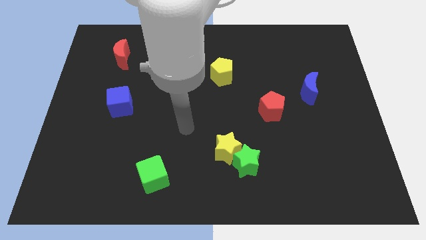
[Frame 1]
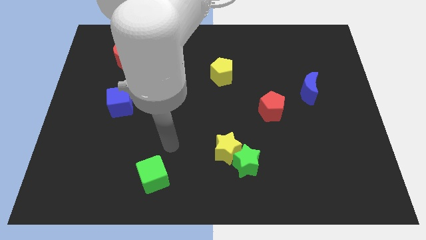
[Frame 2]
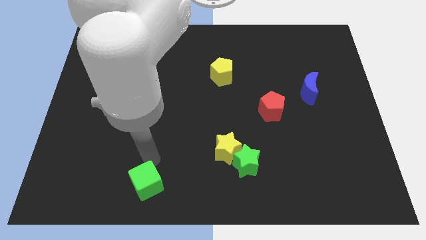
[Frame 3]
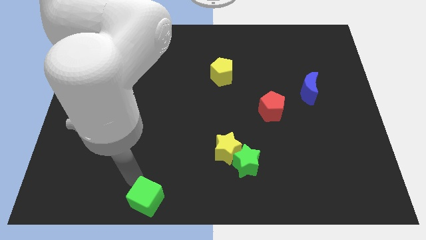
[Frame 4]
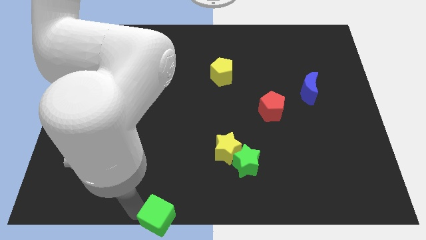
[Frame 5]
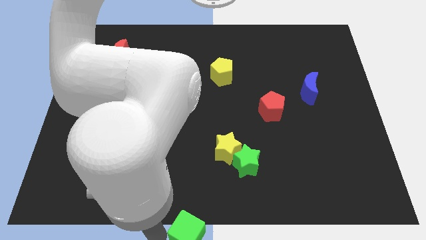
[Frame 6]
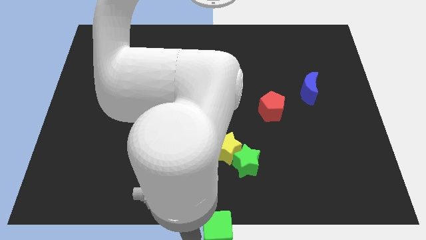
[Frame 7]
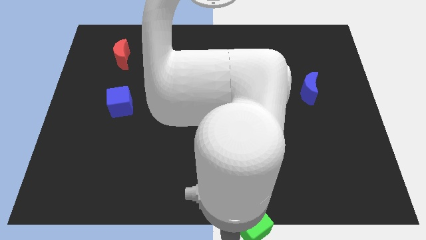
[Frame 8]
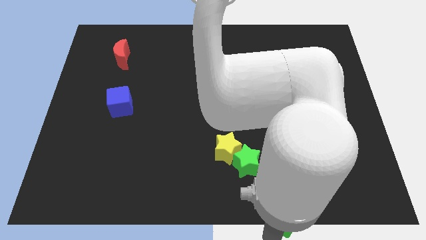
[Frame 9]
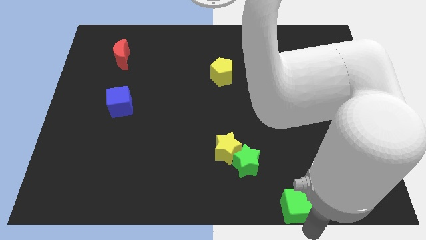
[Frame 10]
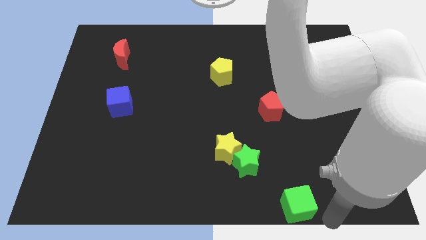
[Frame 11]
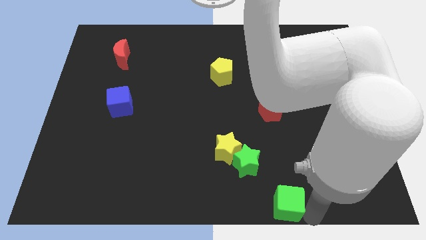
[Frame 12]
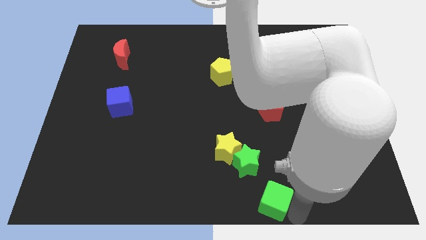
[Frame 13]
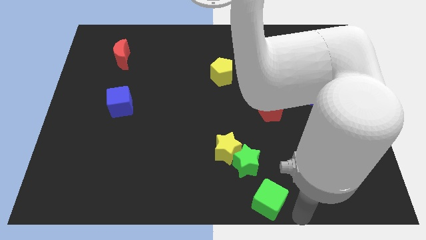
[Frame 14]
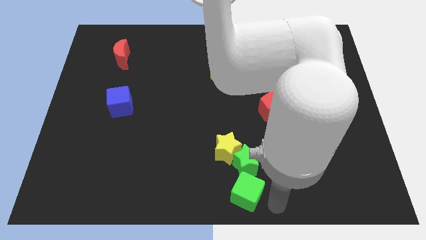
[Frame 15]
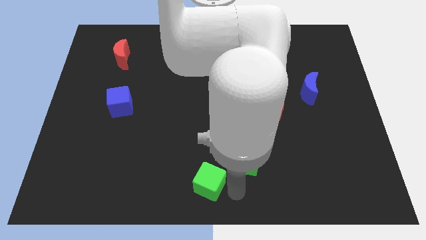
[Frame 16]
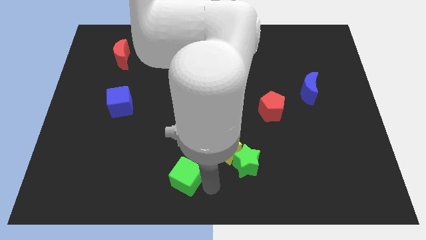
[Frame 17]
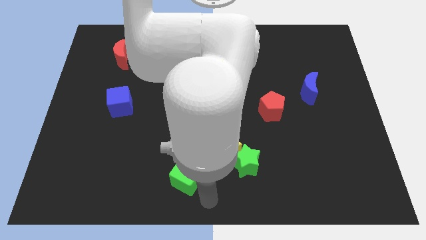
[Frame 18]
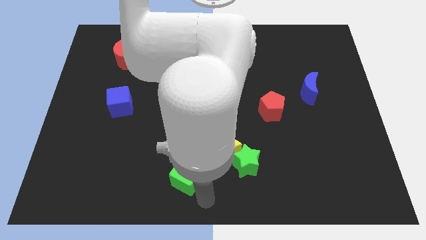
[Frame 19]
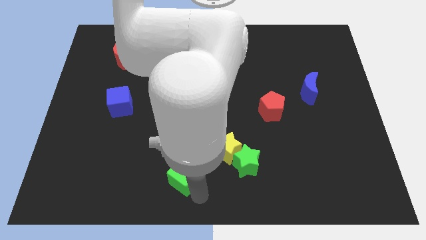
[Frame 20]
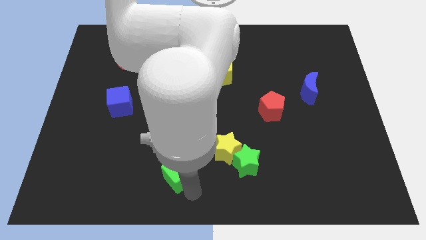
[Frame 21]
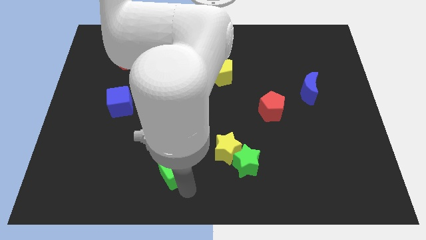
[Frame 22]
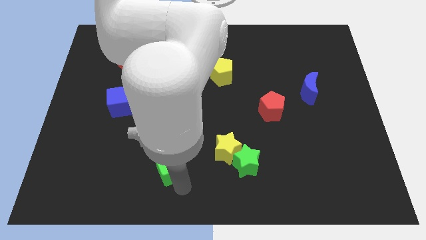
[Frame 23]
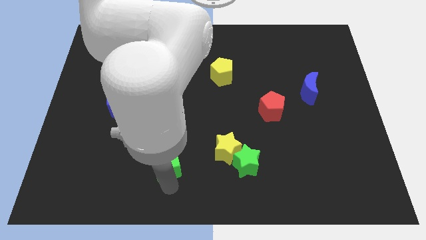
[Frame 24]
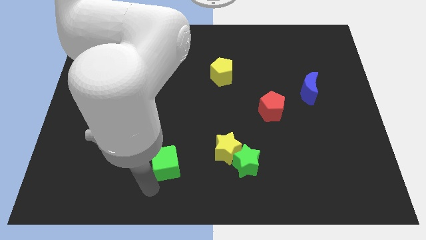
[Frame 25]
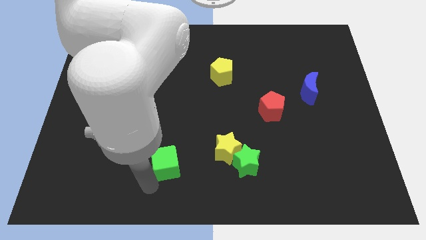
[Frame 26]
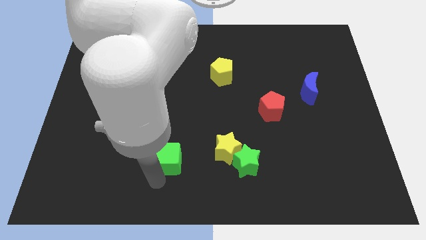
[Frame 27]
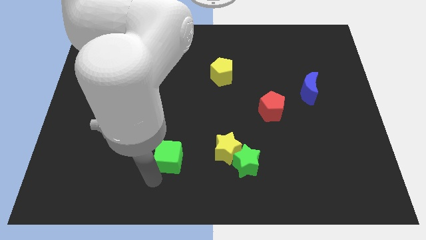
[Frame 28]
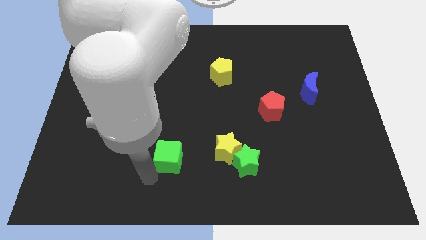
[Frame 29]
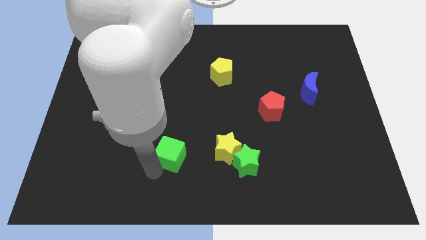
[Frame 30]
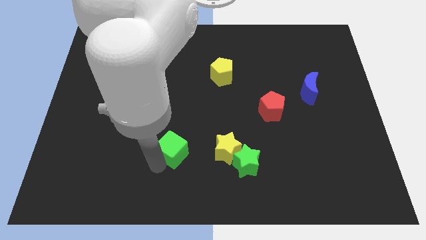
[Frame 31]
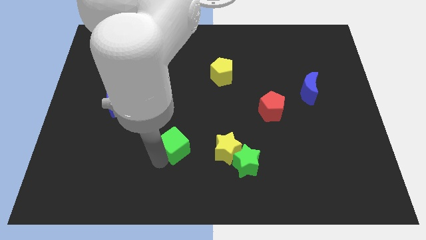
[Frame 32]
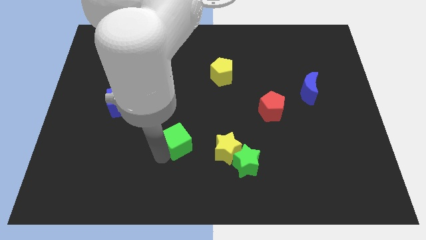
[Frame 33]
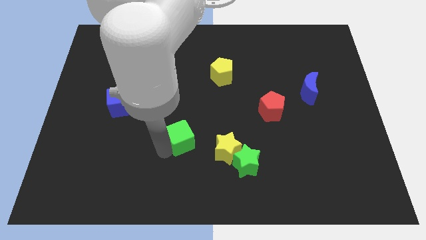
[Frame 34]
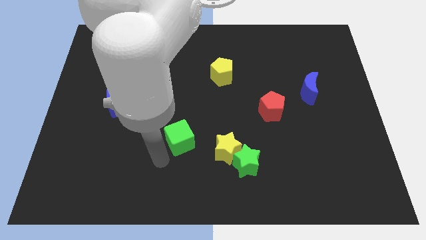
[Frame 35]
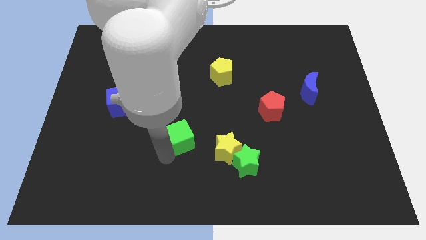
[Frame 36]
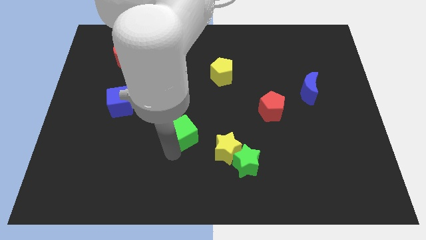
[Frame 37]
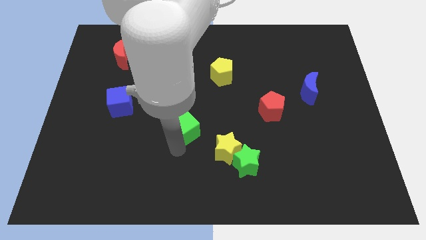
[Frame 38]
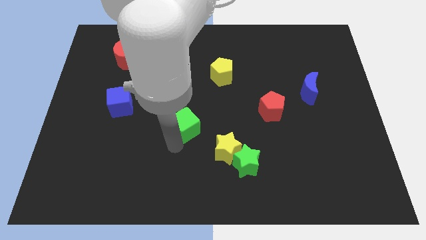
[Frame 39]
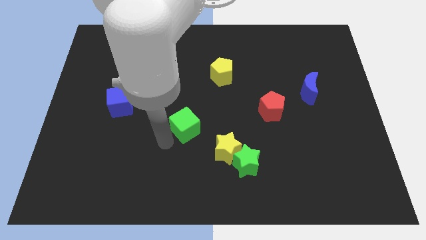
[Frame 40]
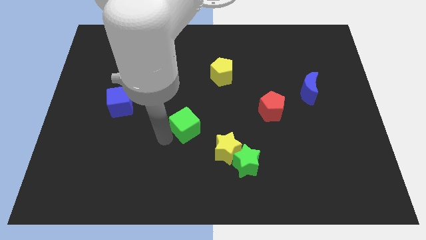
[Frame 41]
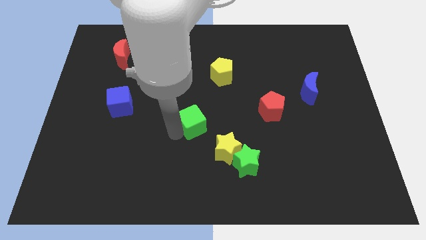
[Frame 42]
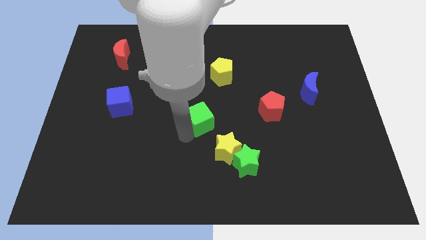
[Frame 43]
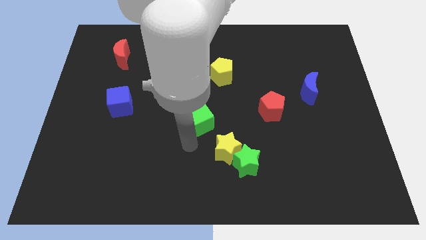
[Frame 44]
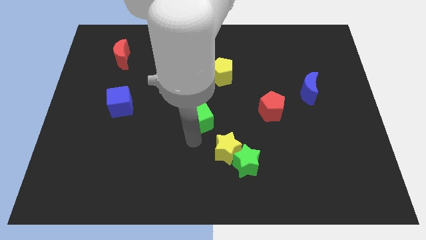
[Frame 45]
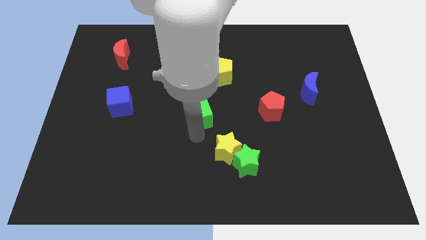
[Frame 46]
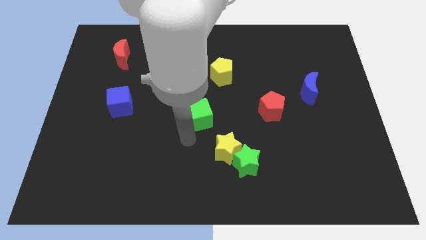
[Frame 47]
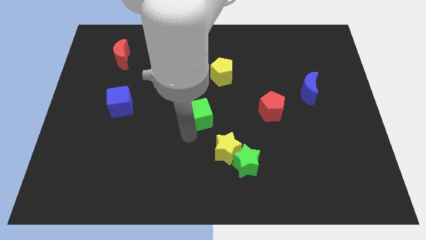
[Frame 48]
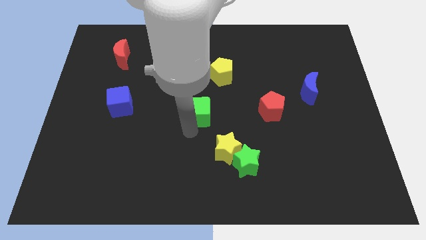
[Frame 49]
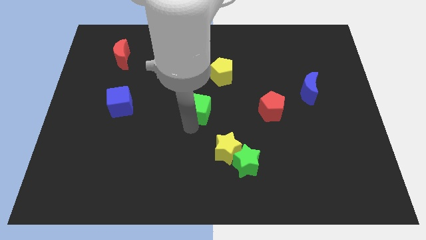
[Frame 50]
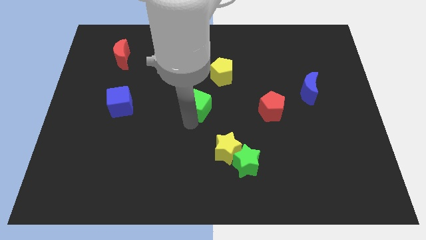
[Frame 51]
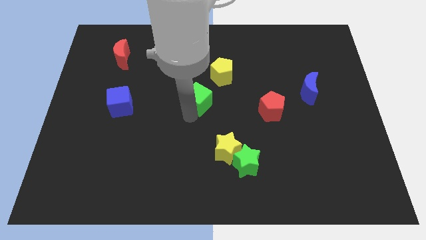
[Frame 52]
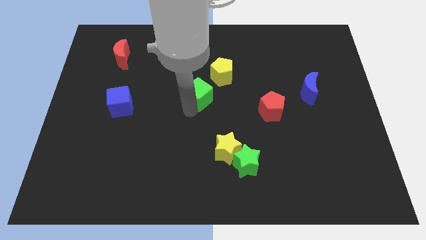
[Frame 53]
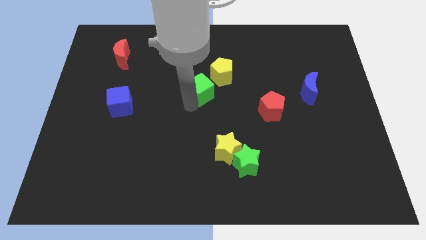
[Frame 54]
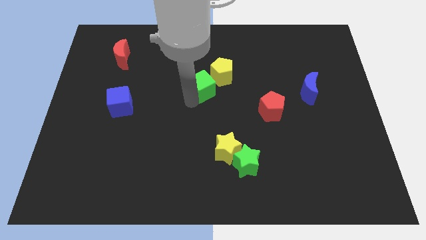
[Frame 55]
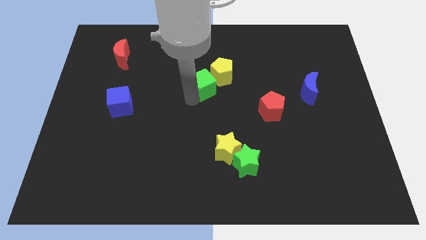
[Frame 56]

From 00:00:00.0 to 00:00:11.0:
put the green cube to the yellow pentagon

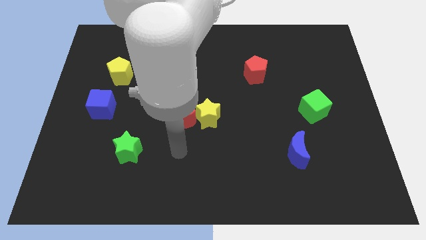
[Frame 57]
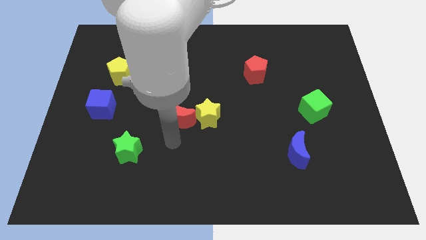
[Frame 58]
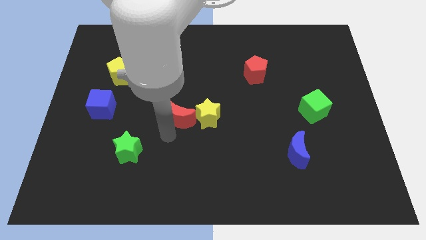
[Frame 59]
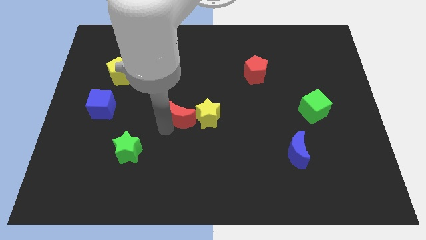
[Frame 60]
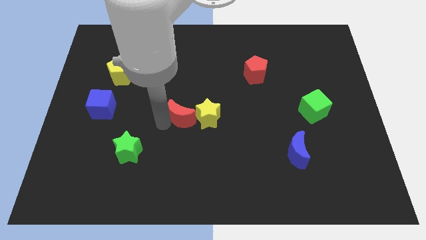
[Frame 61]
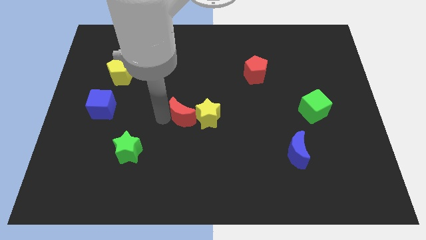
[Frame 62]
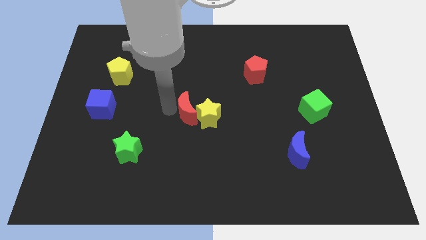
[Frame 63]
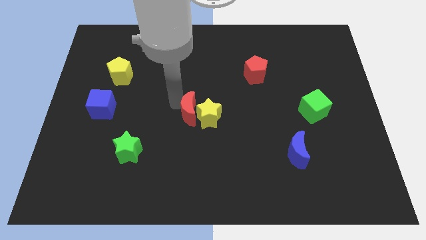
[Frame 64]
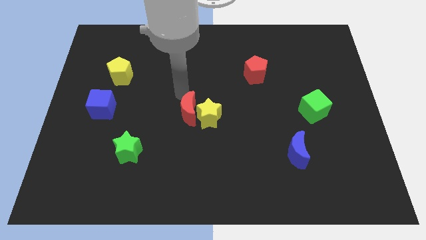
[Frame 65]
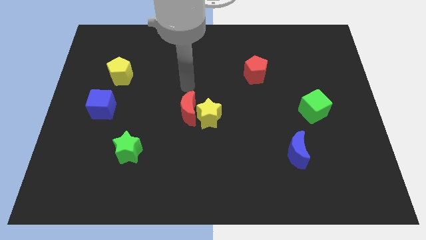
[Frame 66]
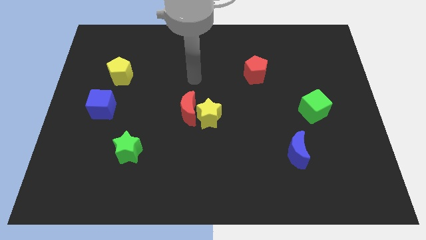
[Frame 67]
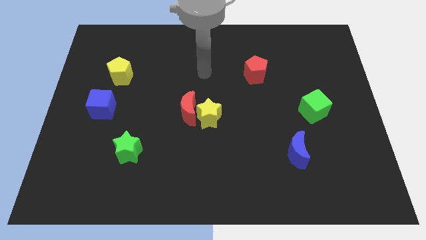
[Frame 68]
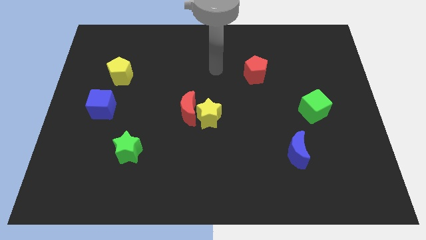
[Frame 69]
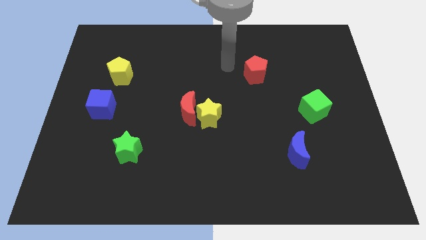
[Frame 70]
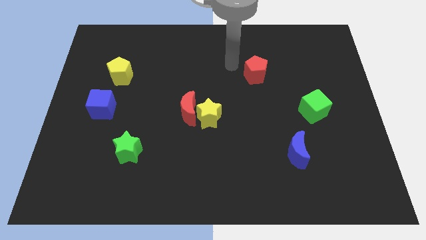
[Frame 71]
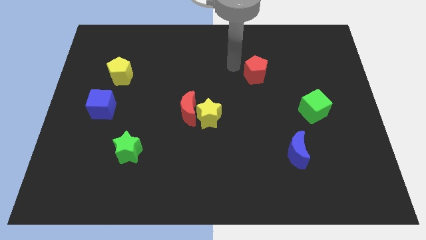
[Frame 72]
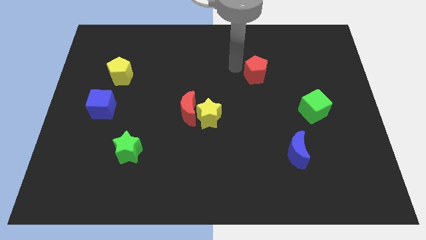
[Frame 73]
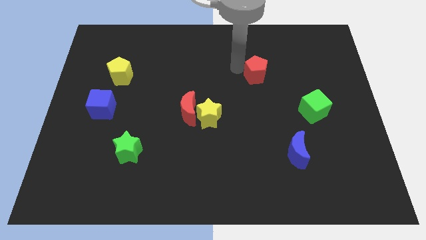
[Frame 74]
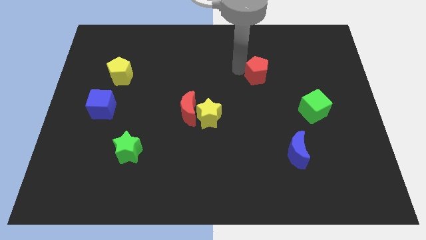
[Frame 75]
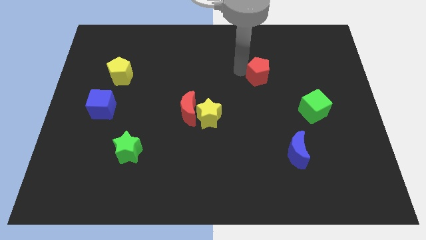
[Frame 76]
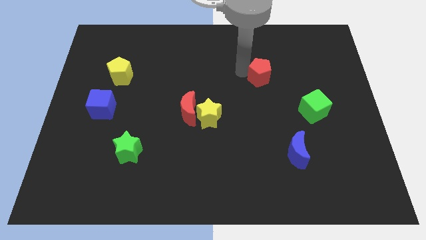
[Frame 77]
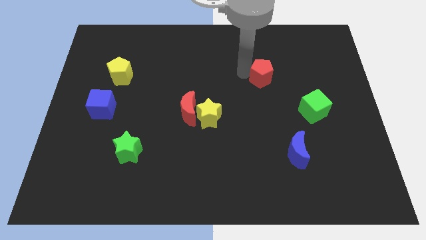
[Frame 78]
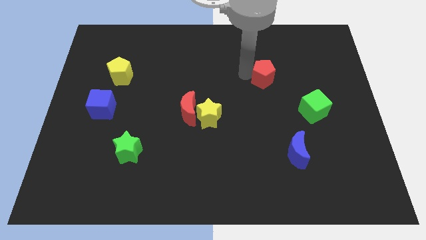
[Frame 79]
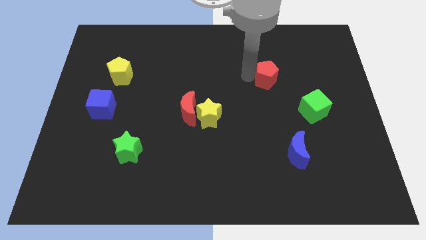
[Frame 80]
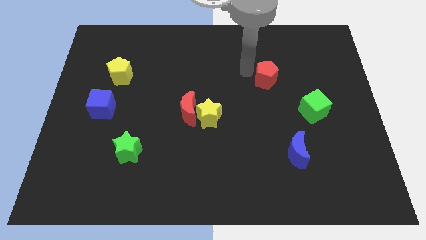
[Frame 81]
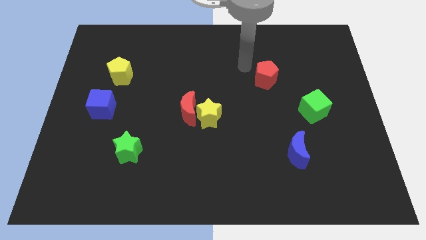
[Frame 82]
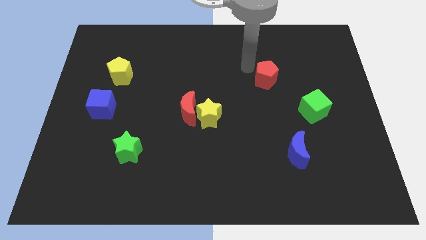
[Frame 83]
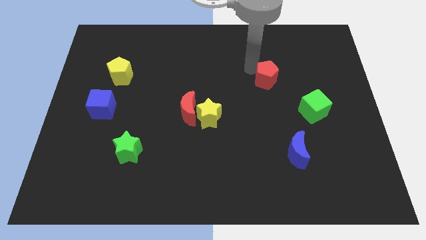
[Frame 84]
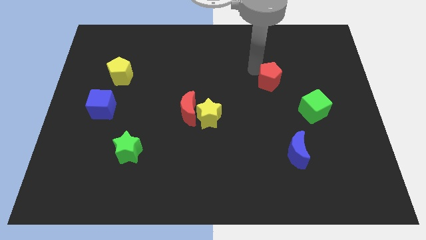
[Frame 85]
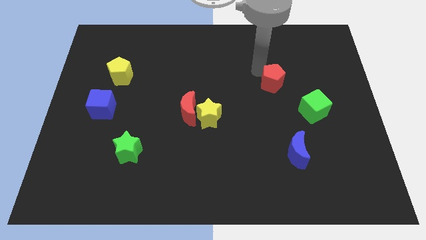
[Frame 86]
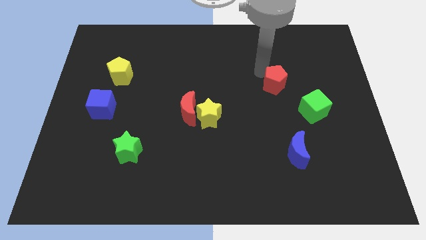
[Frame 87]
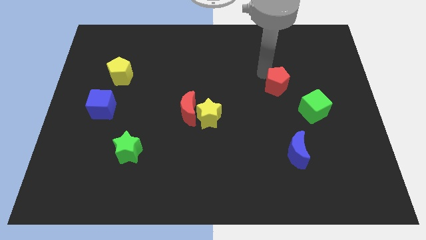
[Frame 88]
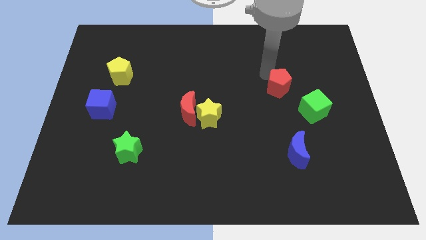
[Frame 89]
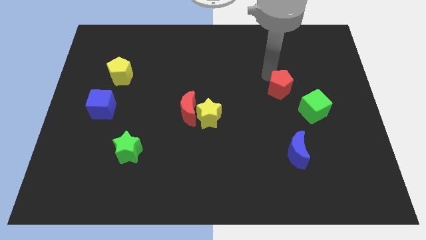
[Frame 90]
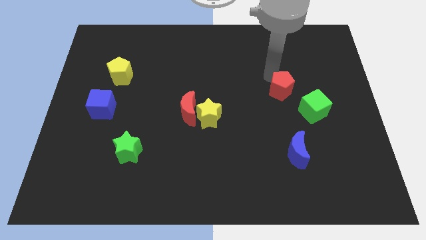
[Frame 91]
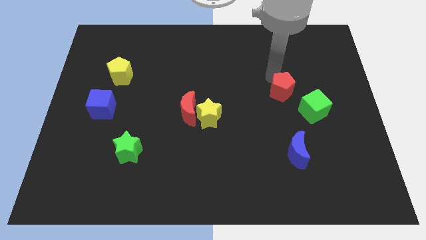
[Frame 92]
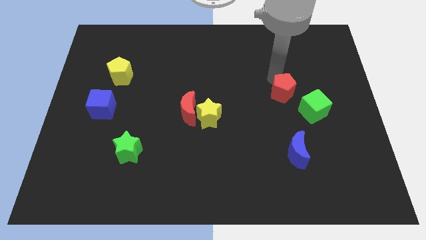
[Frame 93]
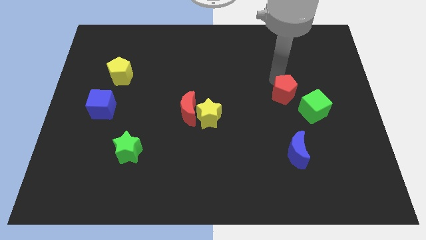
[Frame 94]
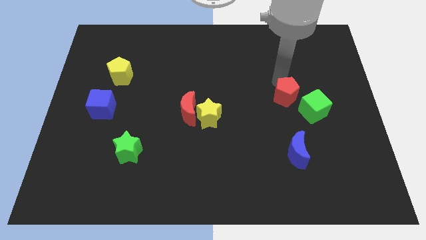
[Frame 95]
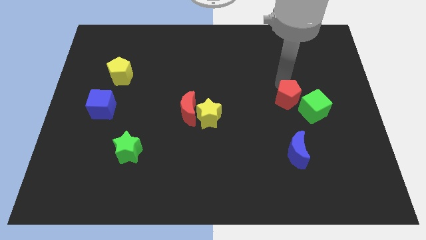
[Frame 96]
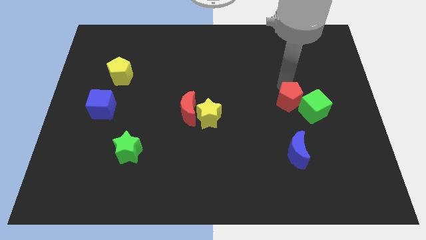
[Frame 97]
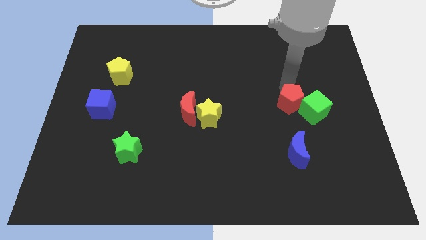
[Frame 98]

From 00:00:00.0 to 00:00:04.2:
put the red pentagon to the green cube
